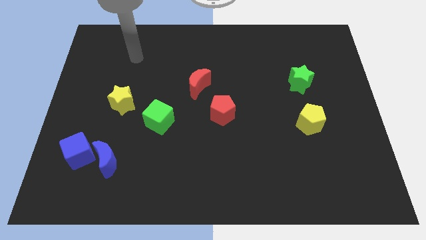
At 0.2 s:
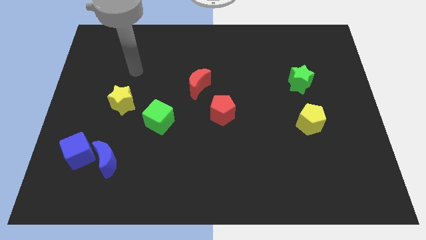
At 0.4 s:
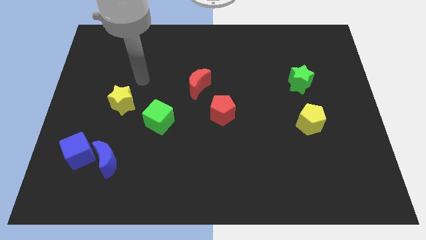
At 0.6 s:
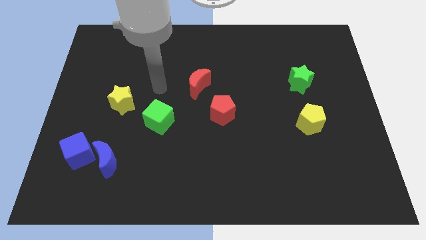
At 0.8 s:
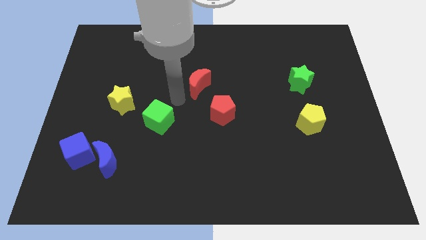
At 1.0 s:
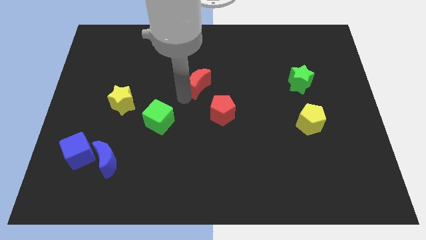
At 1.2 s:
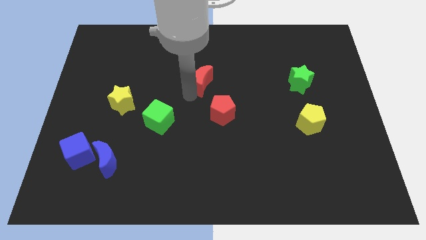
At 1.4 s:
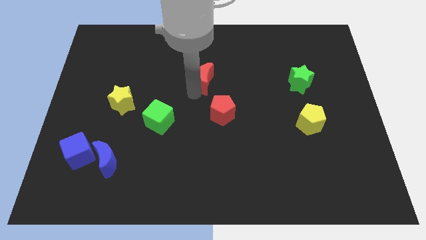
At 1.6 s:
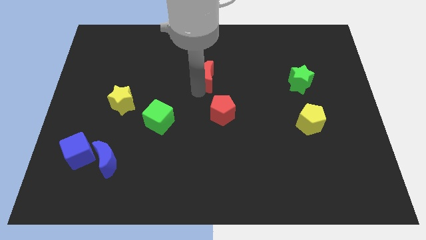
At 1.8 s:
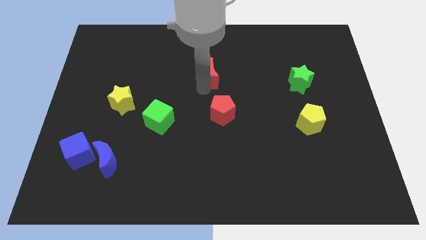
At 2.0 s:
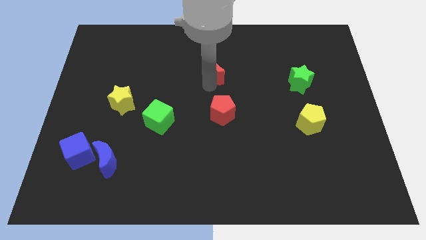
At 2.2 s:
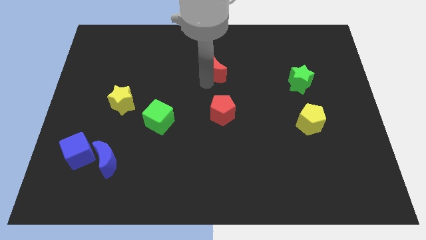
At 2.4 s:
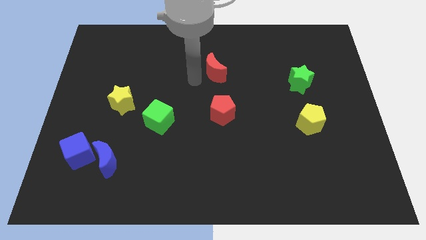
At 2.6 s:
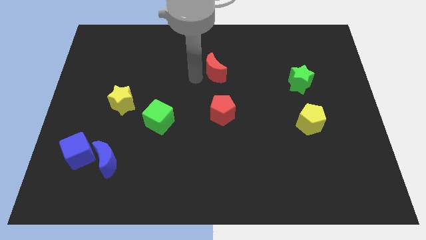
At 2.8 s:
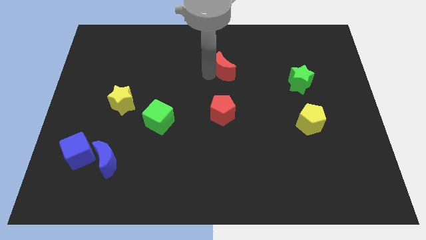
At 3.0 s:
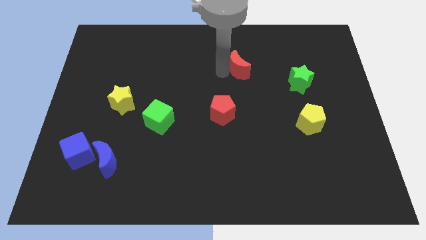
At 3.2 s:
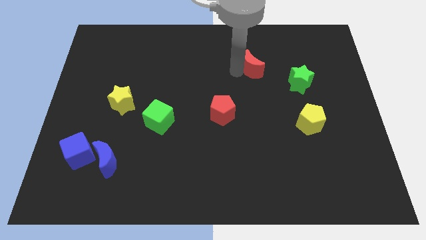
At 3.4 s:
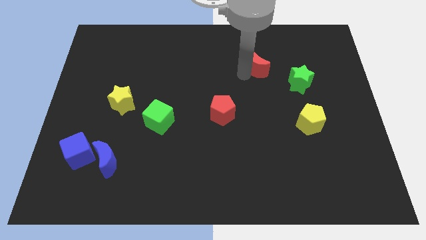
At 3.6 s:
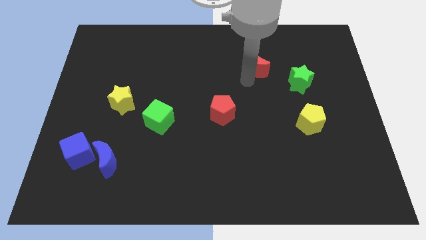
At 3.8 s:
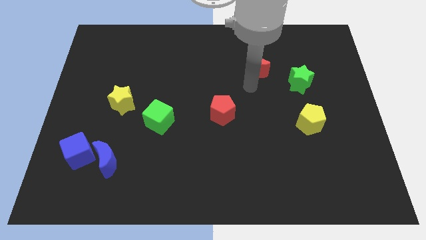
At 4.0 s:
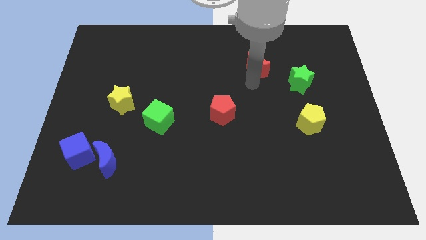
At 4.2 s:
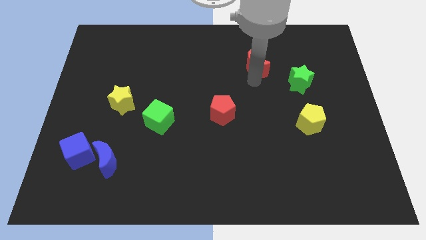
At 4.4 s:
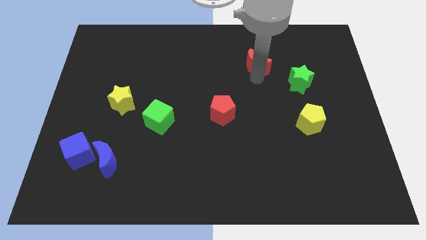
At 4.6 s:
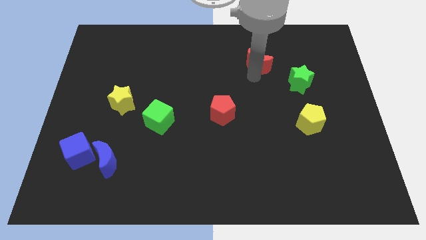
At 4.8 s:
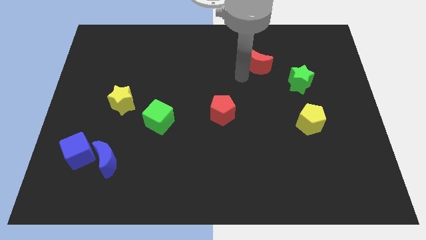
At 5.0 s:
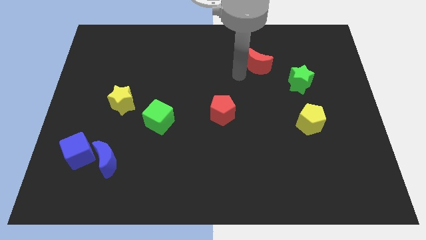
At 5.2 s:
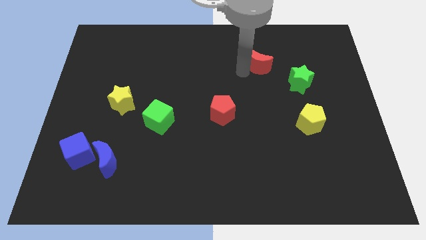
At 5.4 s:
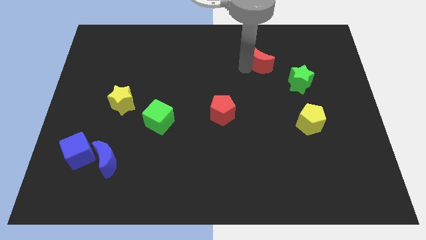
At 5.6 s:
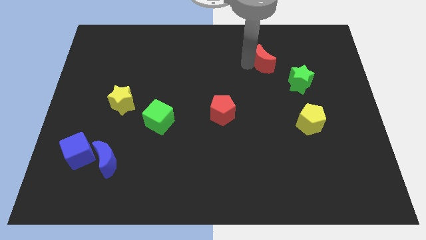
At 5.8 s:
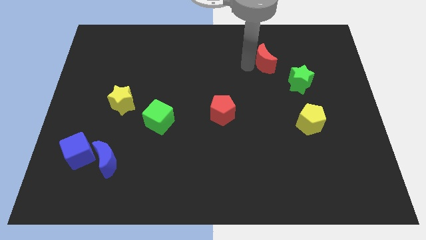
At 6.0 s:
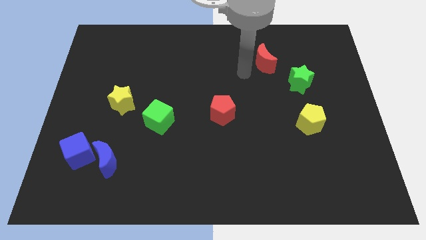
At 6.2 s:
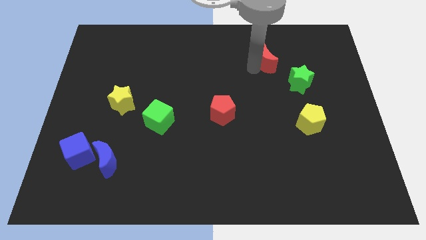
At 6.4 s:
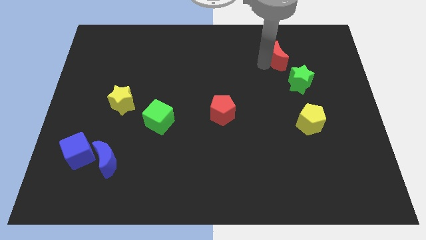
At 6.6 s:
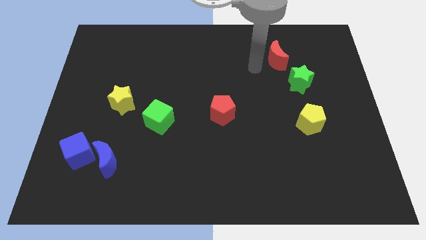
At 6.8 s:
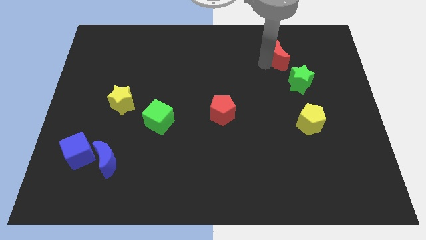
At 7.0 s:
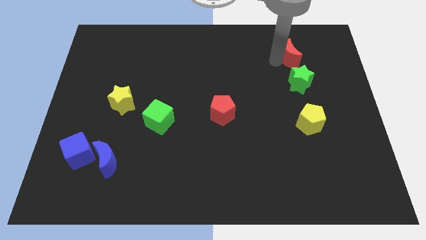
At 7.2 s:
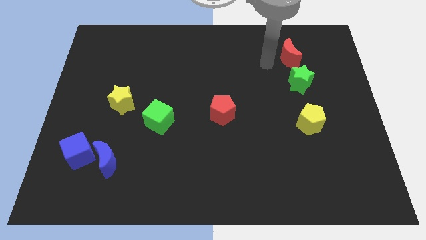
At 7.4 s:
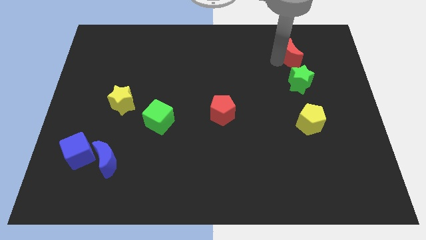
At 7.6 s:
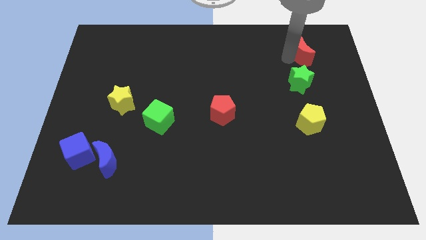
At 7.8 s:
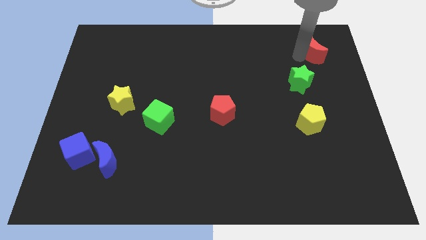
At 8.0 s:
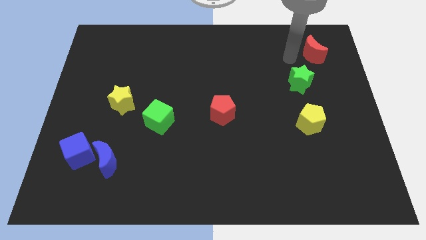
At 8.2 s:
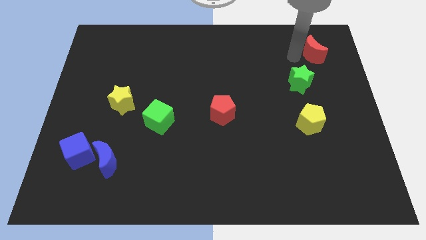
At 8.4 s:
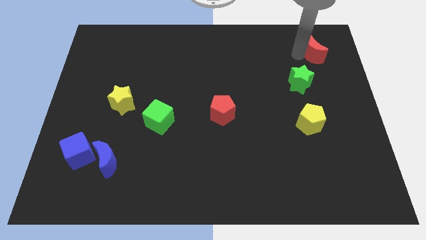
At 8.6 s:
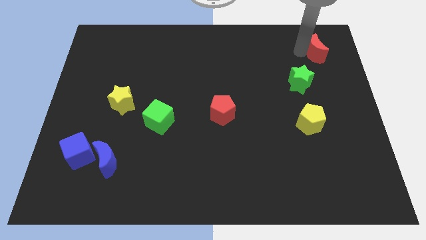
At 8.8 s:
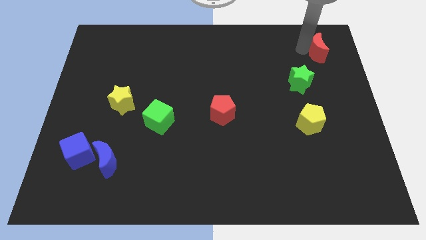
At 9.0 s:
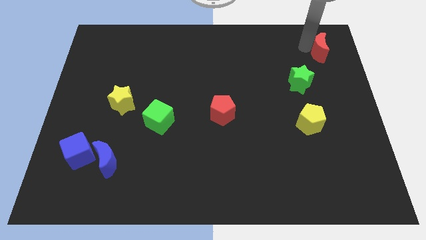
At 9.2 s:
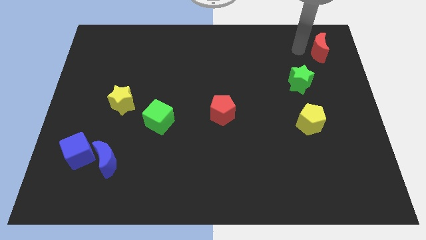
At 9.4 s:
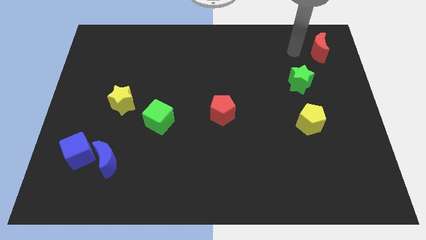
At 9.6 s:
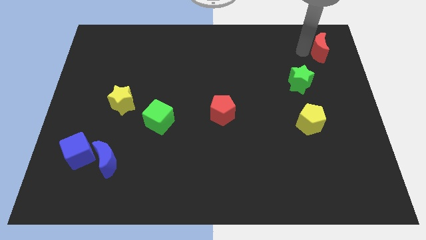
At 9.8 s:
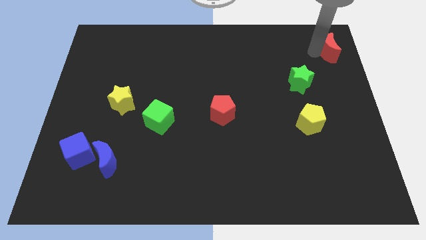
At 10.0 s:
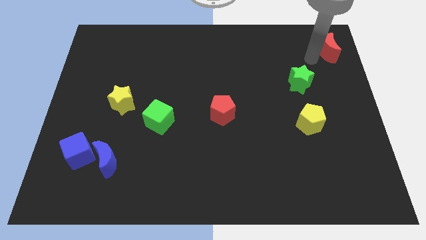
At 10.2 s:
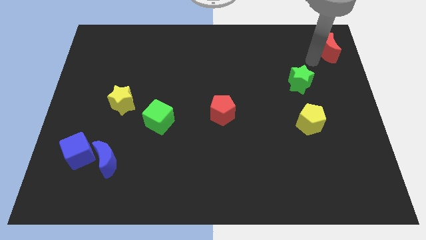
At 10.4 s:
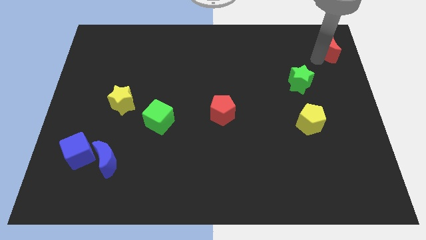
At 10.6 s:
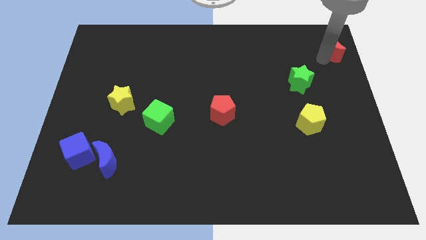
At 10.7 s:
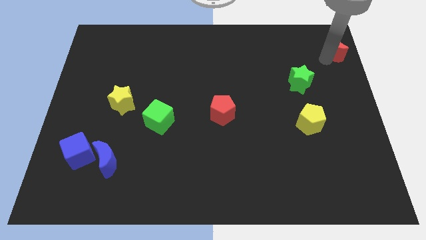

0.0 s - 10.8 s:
push the red moon to the upper right corner
